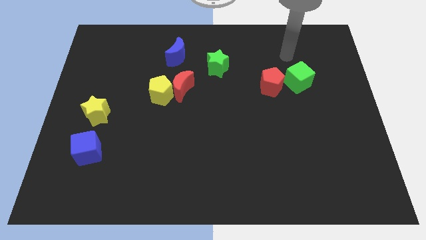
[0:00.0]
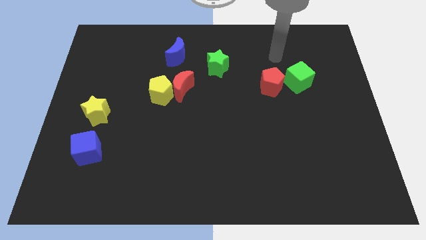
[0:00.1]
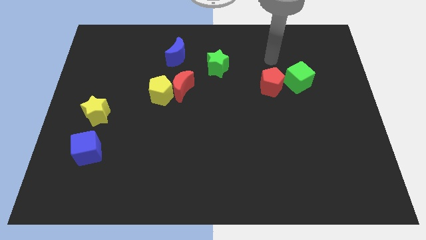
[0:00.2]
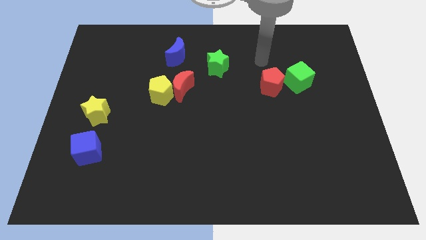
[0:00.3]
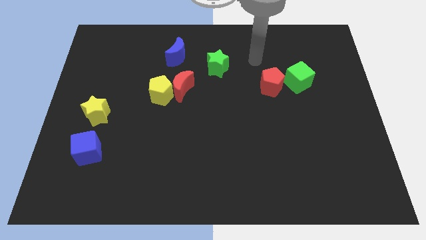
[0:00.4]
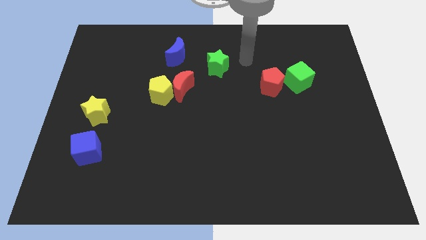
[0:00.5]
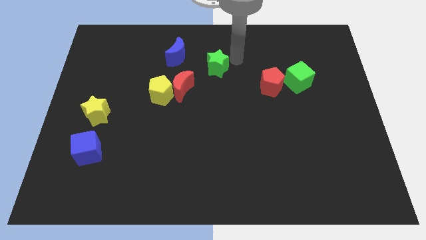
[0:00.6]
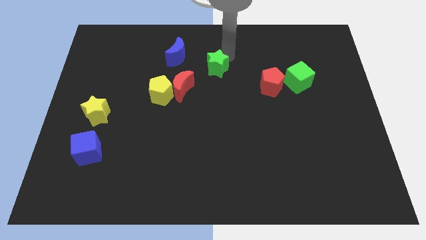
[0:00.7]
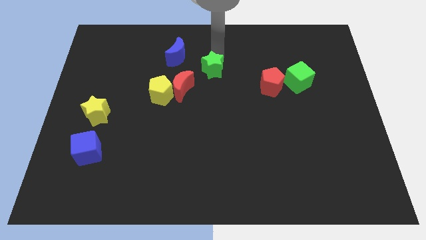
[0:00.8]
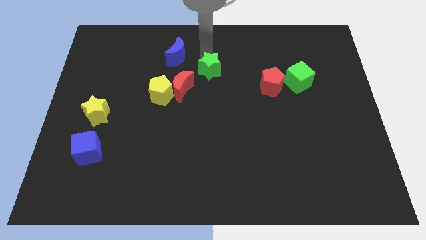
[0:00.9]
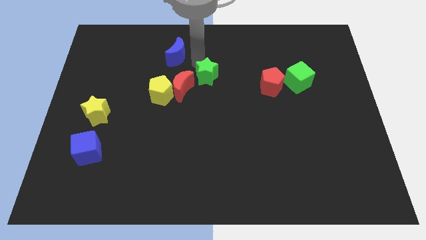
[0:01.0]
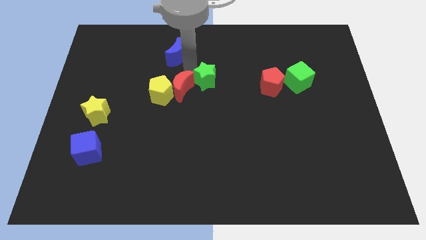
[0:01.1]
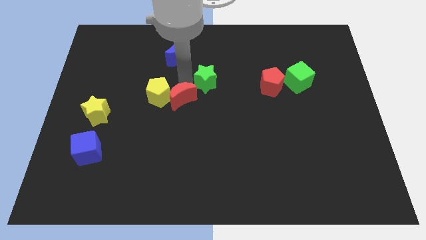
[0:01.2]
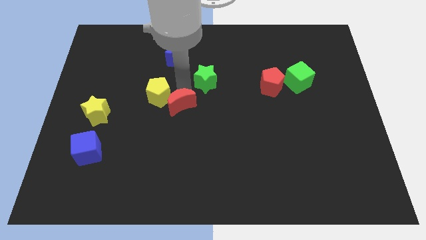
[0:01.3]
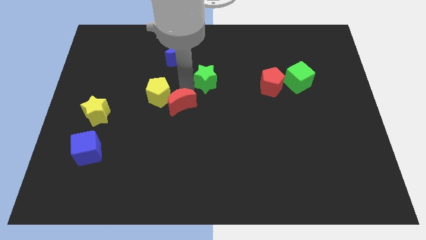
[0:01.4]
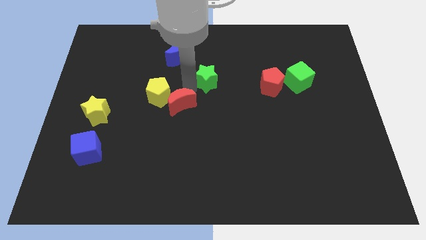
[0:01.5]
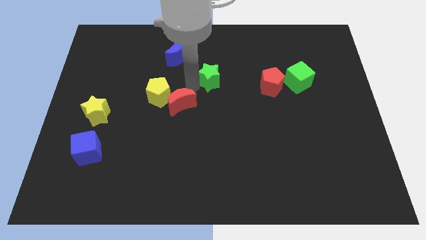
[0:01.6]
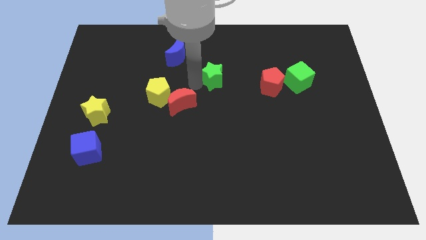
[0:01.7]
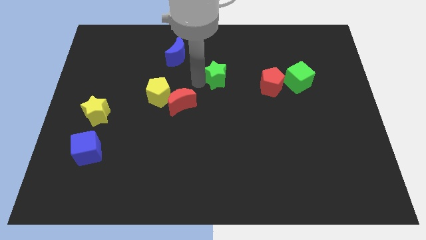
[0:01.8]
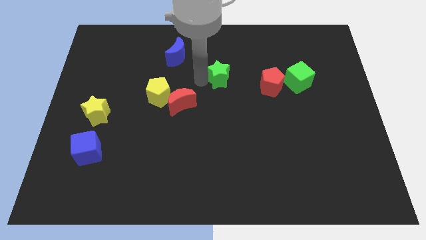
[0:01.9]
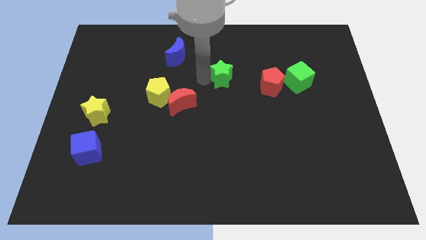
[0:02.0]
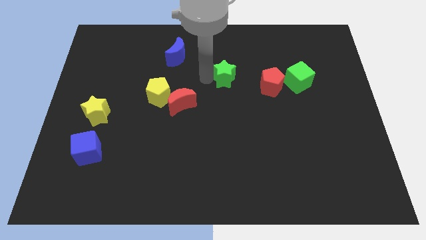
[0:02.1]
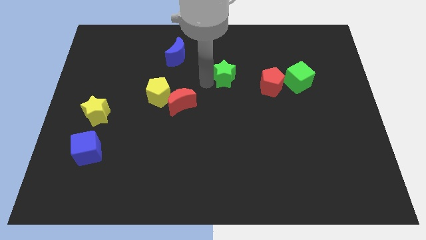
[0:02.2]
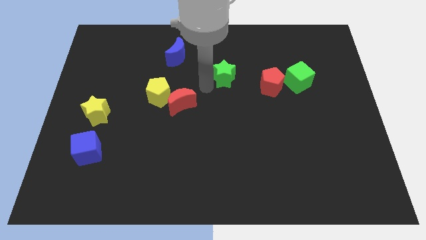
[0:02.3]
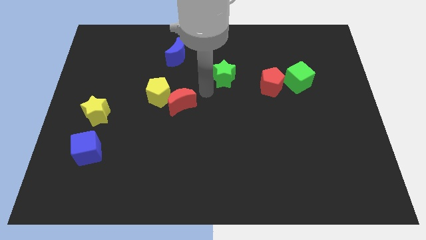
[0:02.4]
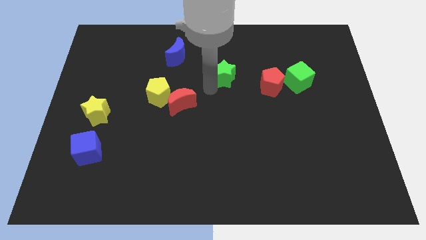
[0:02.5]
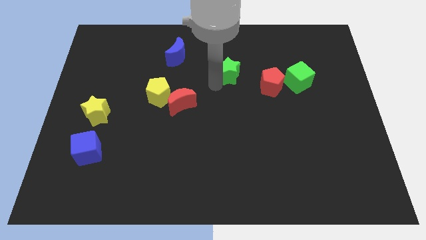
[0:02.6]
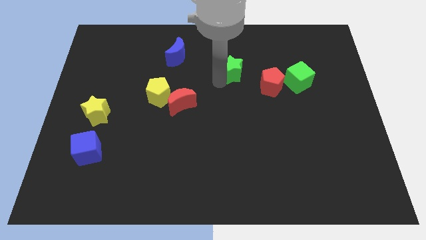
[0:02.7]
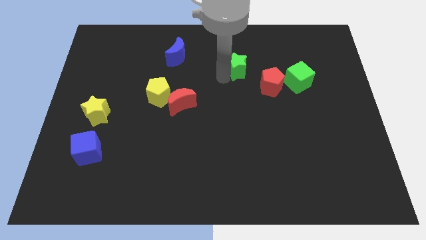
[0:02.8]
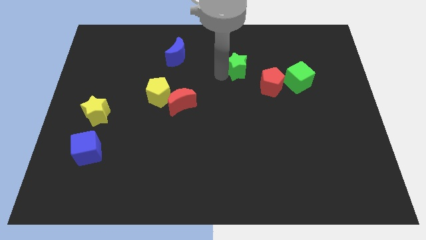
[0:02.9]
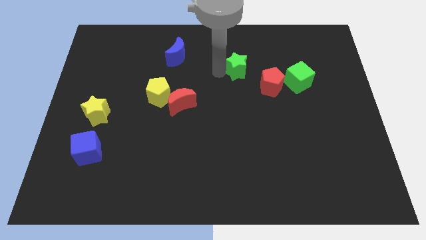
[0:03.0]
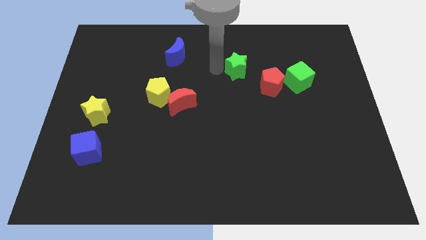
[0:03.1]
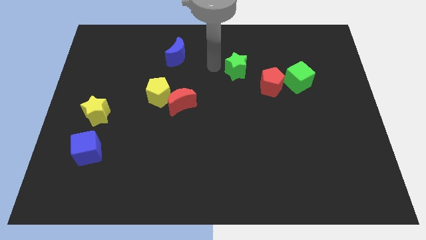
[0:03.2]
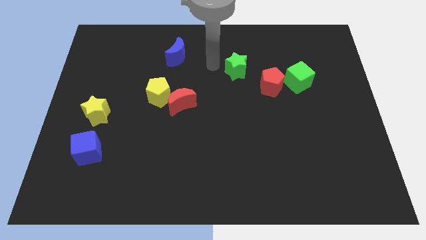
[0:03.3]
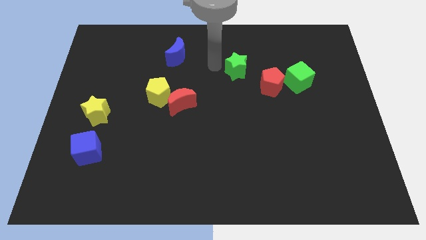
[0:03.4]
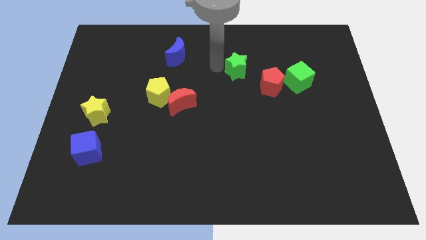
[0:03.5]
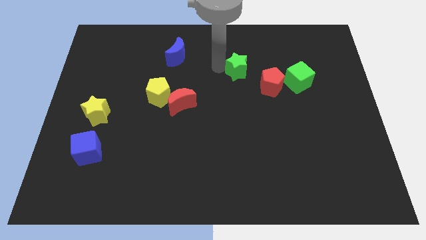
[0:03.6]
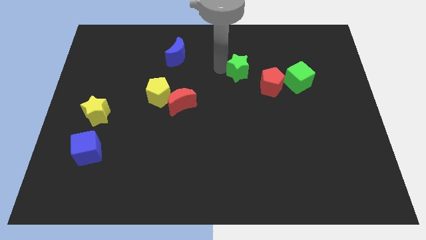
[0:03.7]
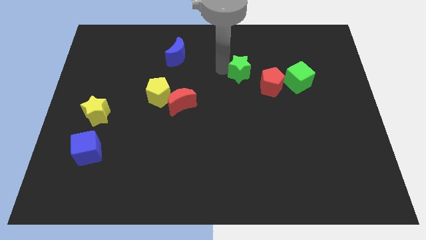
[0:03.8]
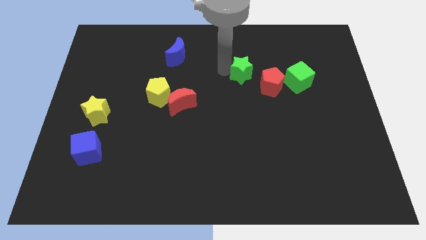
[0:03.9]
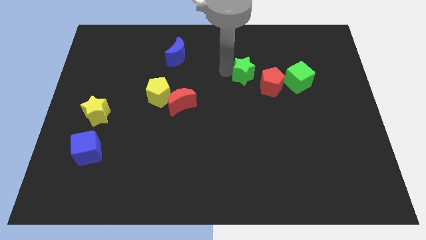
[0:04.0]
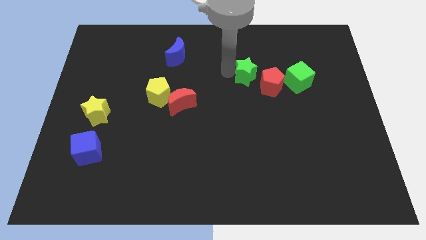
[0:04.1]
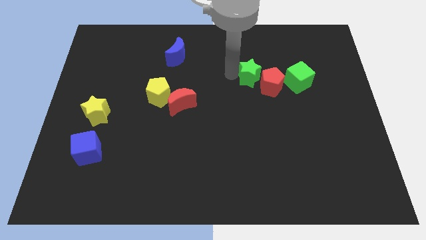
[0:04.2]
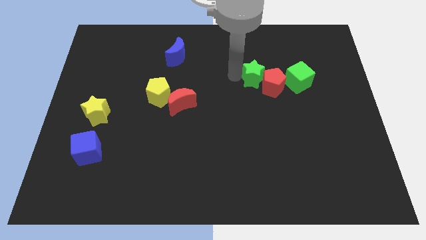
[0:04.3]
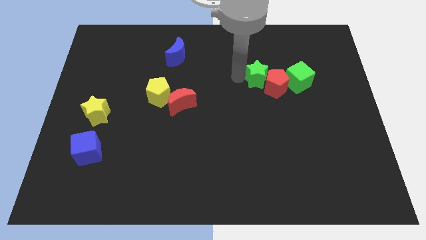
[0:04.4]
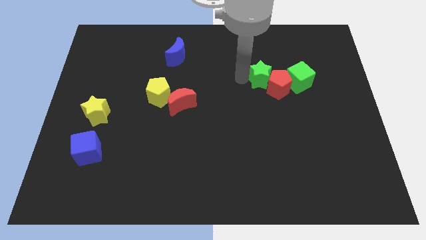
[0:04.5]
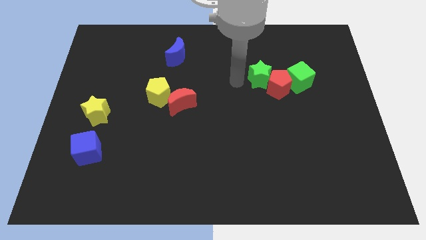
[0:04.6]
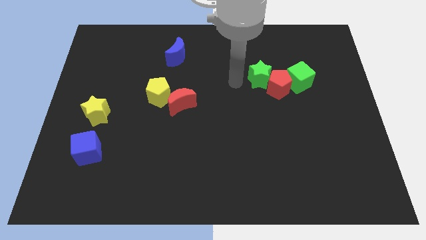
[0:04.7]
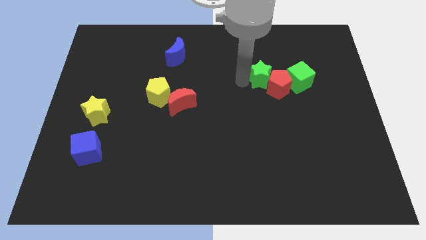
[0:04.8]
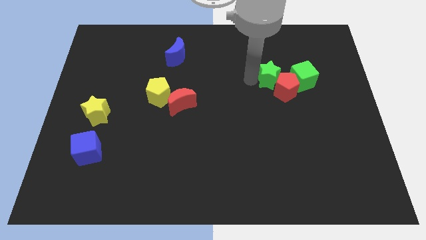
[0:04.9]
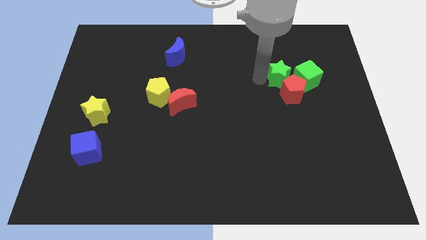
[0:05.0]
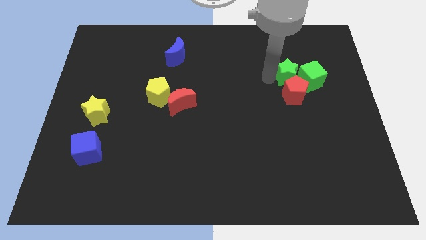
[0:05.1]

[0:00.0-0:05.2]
slide the green star diagonally up and to the right of the red pentagon

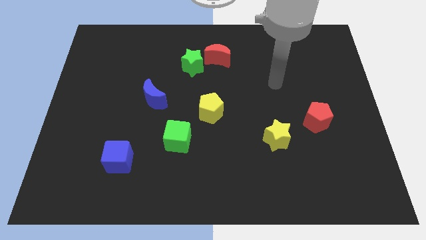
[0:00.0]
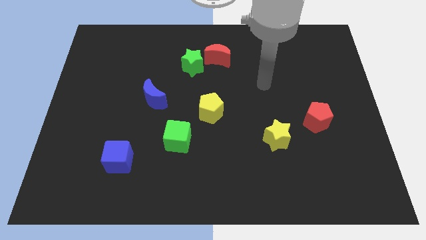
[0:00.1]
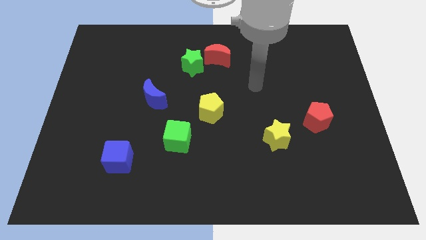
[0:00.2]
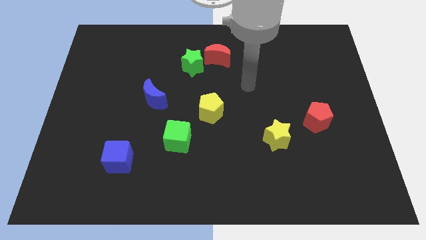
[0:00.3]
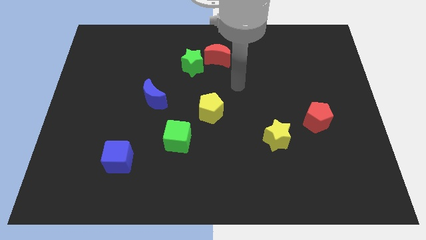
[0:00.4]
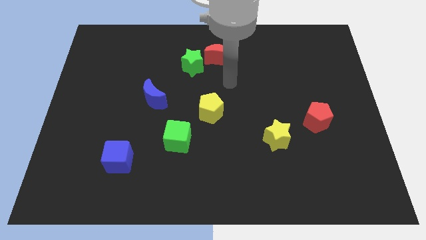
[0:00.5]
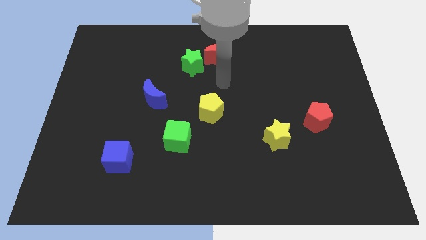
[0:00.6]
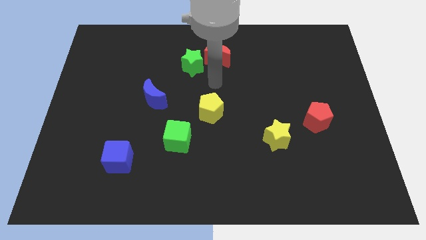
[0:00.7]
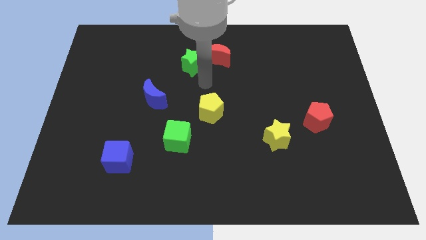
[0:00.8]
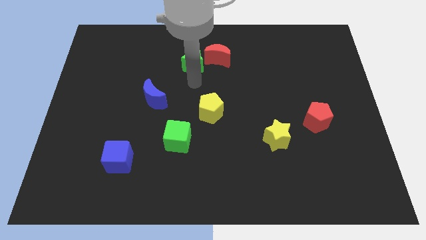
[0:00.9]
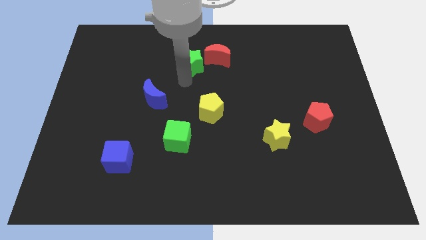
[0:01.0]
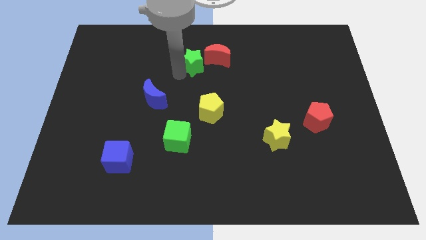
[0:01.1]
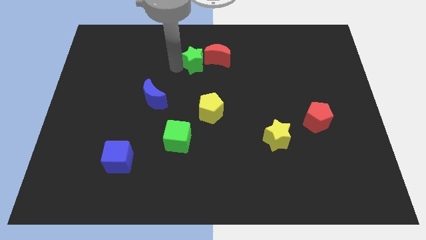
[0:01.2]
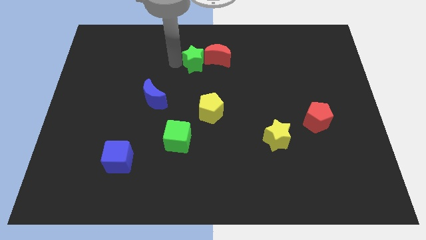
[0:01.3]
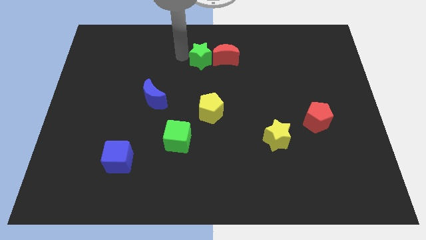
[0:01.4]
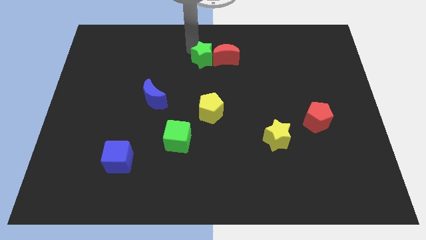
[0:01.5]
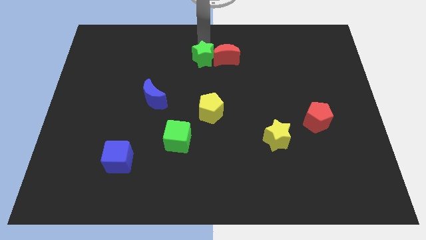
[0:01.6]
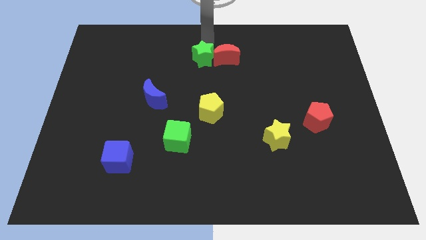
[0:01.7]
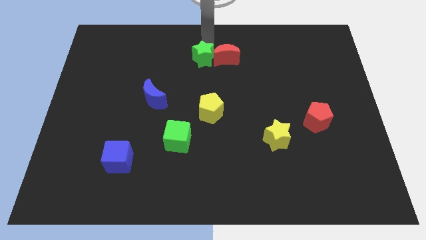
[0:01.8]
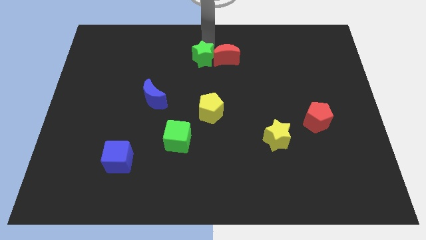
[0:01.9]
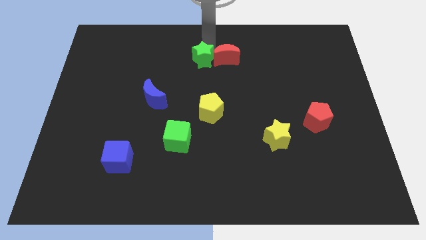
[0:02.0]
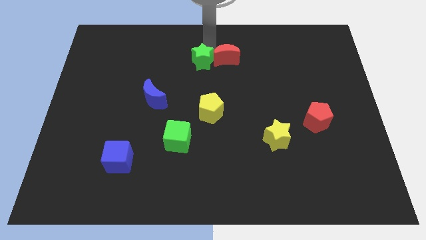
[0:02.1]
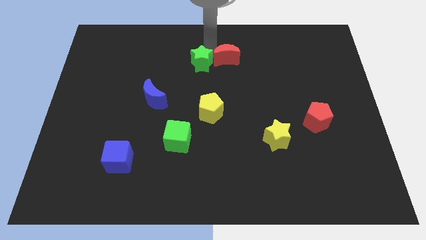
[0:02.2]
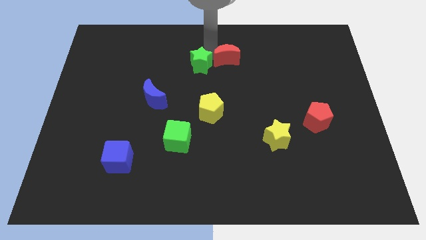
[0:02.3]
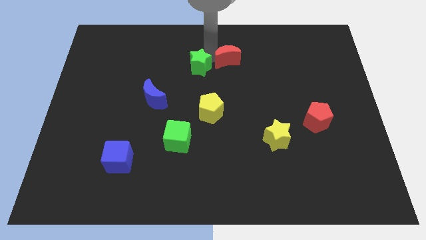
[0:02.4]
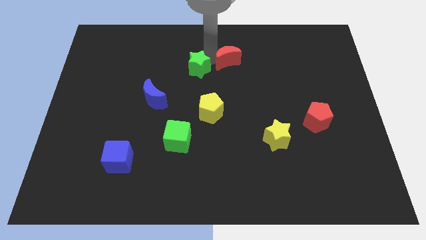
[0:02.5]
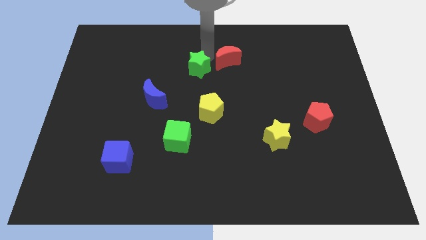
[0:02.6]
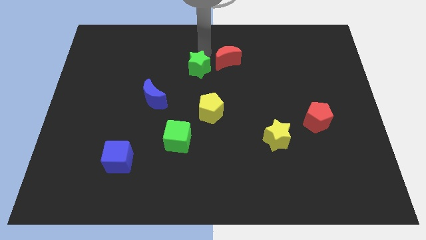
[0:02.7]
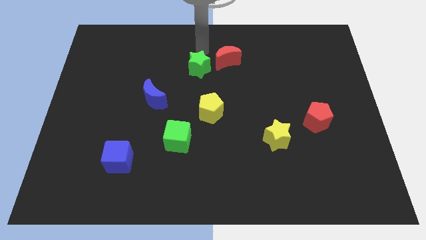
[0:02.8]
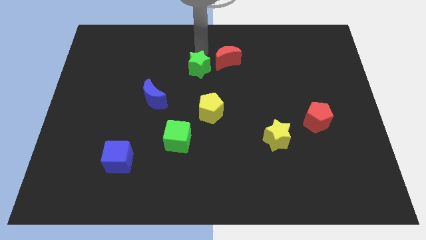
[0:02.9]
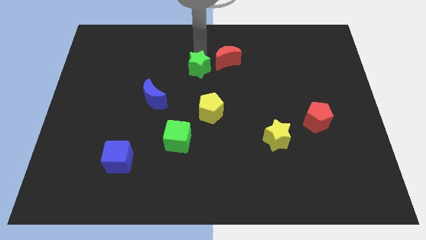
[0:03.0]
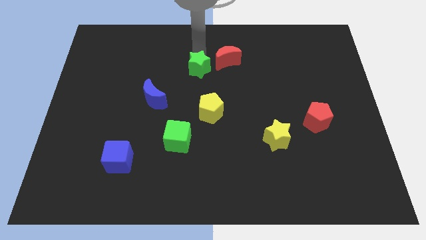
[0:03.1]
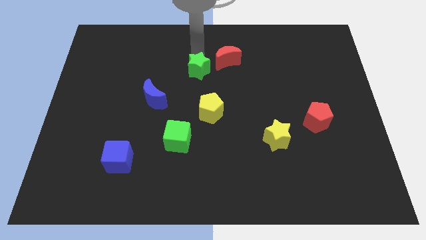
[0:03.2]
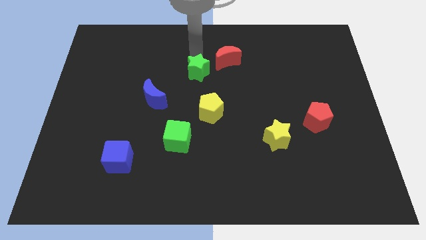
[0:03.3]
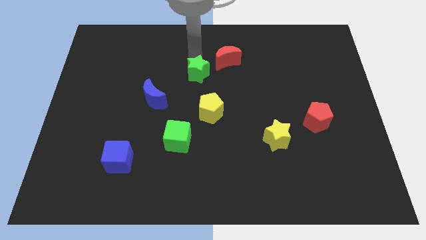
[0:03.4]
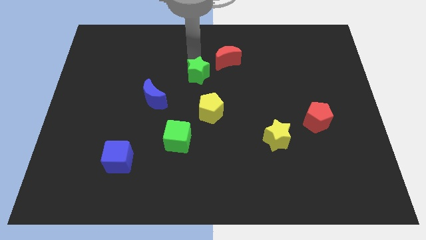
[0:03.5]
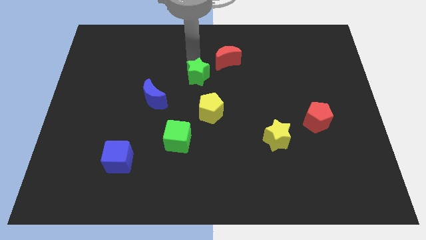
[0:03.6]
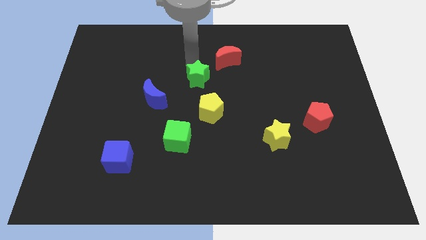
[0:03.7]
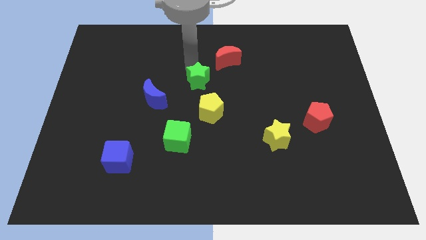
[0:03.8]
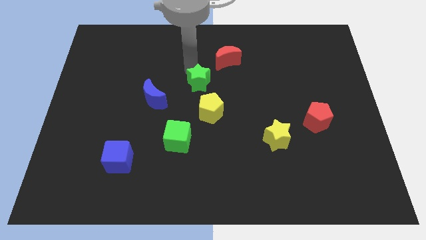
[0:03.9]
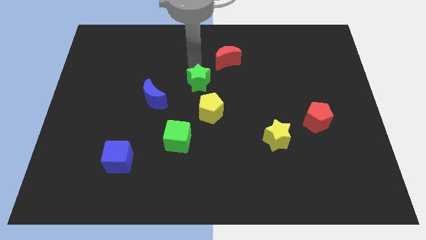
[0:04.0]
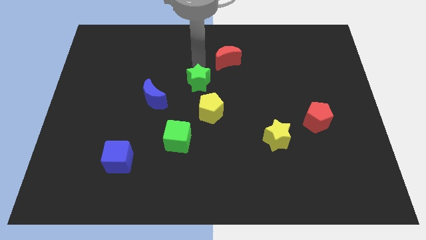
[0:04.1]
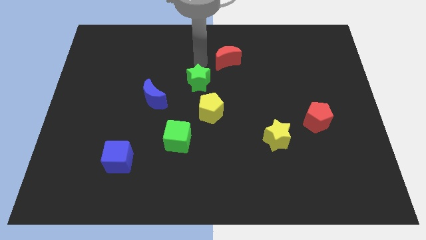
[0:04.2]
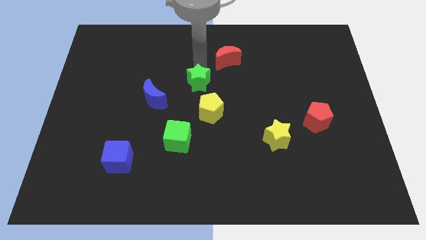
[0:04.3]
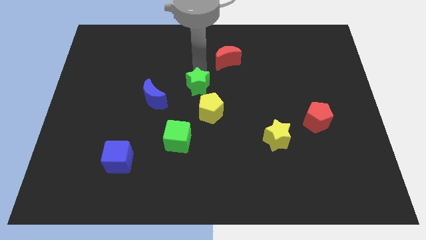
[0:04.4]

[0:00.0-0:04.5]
push the green star right of the blue moon
